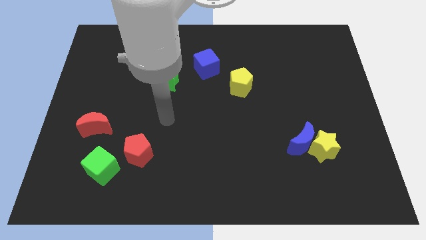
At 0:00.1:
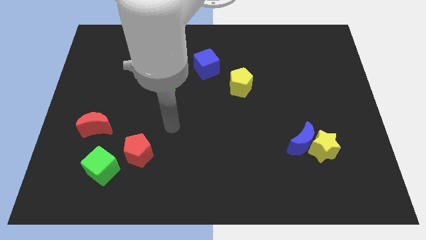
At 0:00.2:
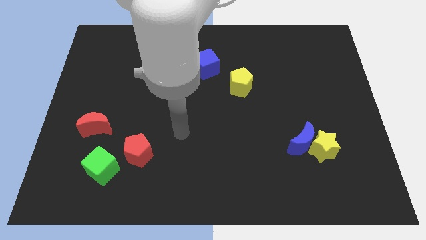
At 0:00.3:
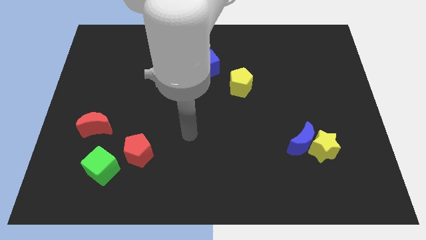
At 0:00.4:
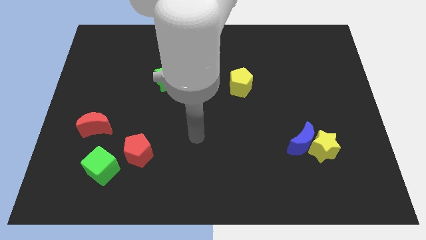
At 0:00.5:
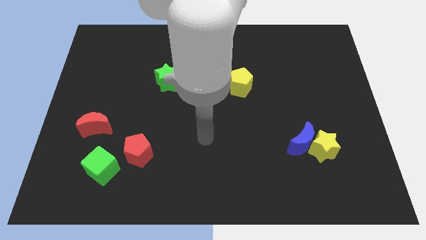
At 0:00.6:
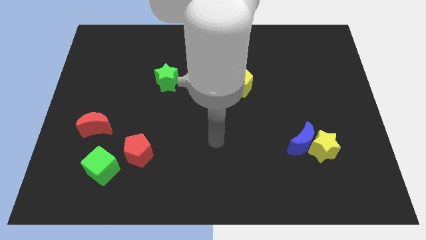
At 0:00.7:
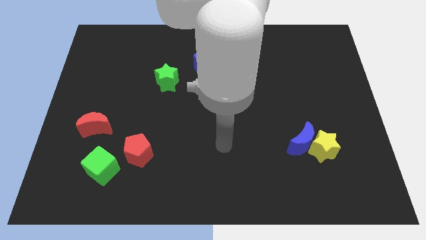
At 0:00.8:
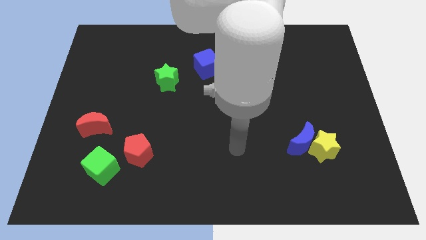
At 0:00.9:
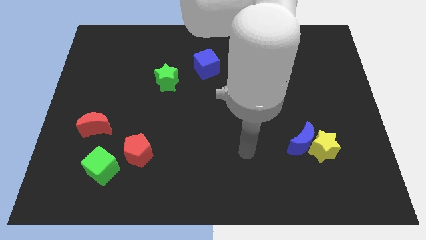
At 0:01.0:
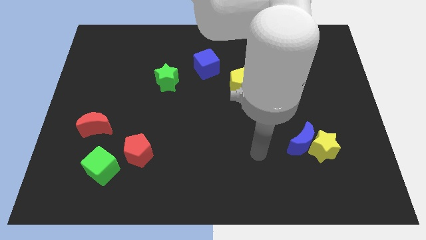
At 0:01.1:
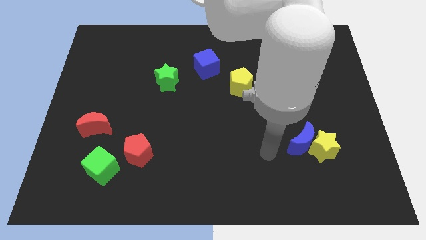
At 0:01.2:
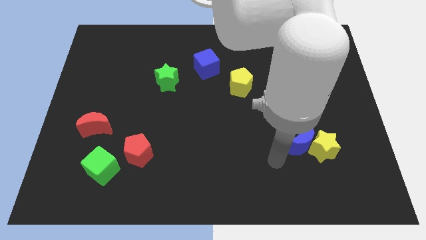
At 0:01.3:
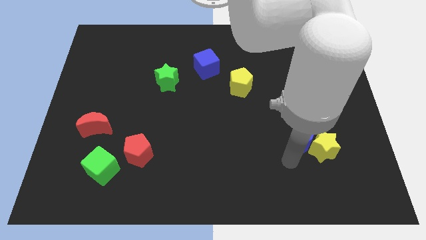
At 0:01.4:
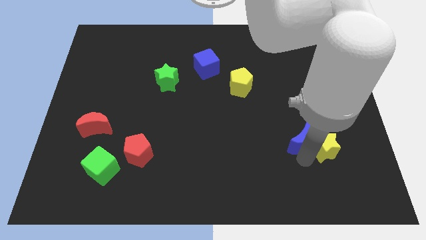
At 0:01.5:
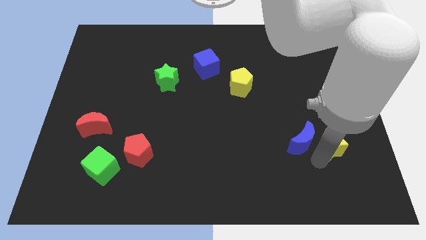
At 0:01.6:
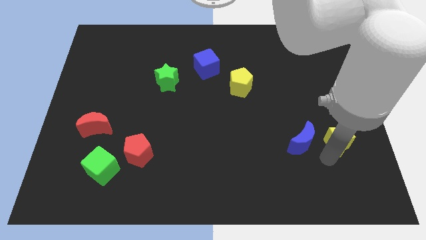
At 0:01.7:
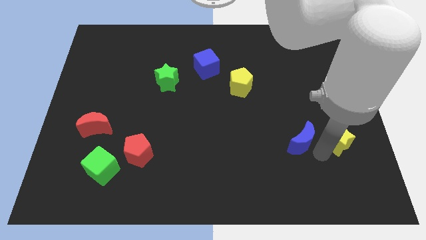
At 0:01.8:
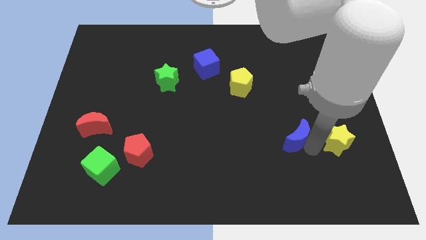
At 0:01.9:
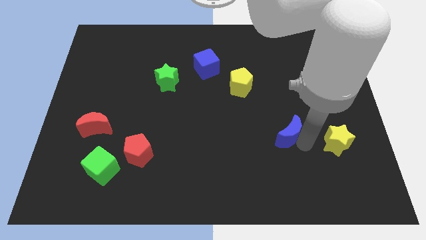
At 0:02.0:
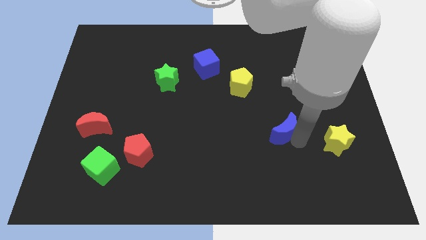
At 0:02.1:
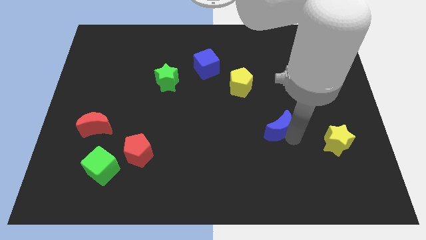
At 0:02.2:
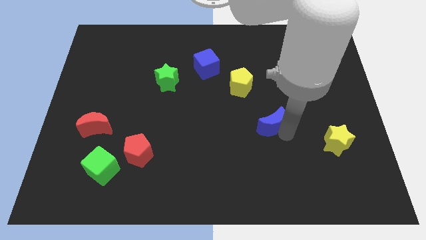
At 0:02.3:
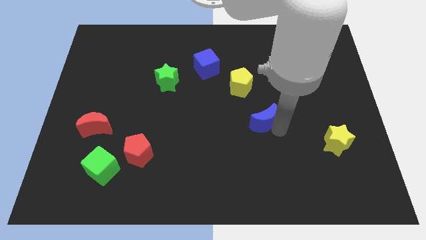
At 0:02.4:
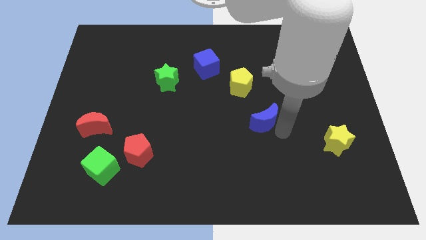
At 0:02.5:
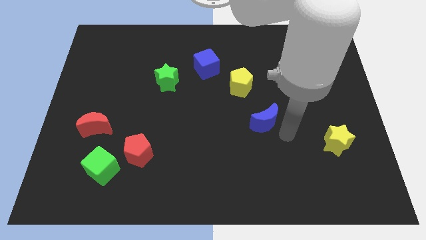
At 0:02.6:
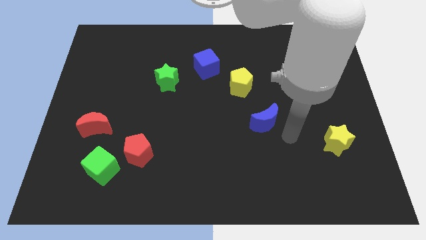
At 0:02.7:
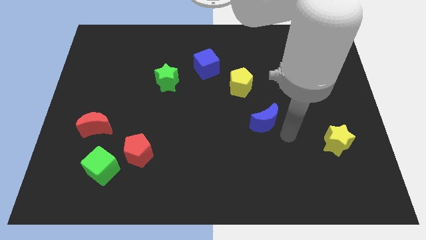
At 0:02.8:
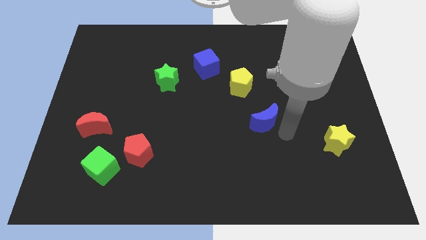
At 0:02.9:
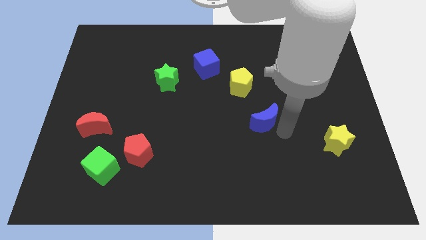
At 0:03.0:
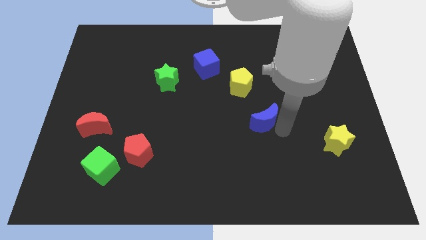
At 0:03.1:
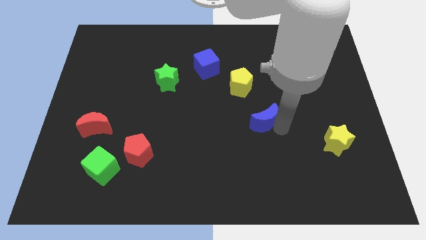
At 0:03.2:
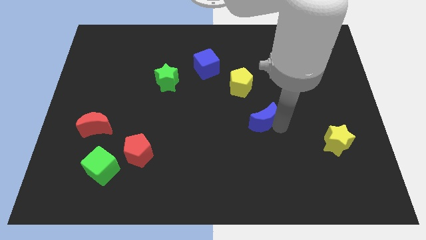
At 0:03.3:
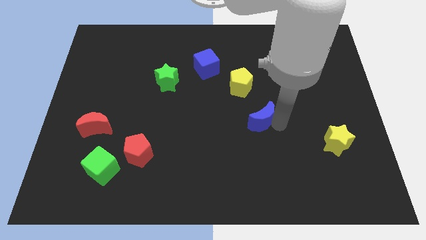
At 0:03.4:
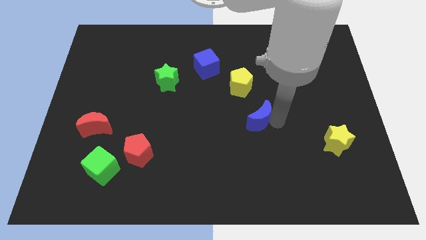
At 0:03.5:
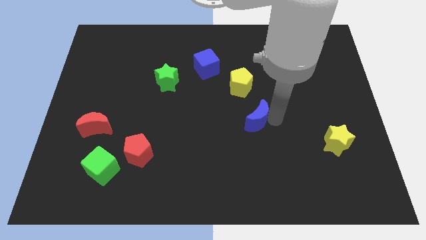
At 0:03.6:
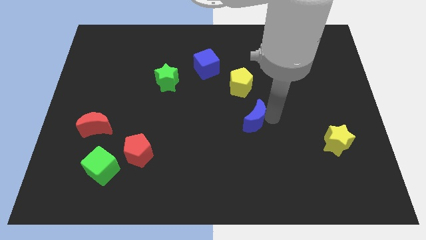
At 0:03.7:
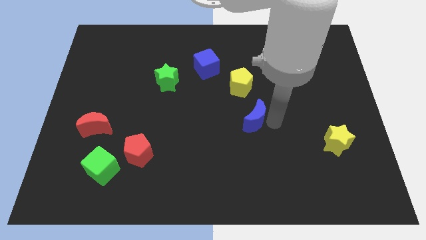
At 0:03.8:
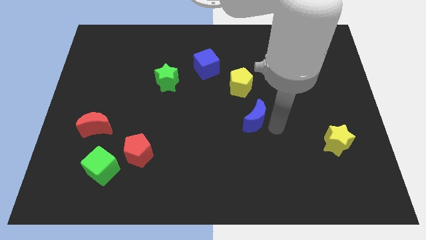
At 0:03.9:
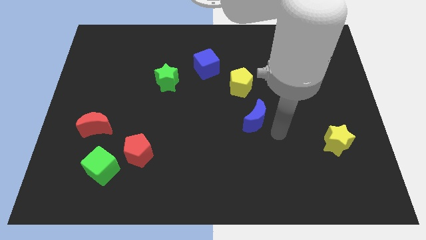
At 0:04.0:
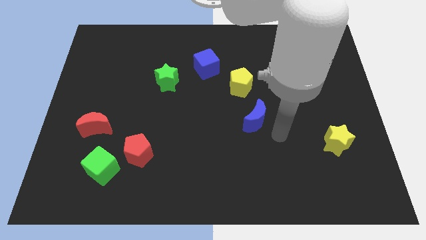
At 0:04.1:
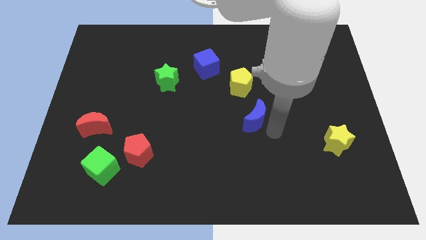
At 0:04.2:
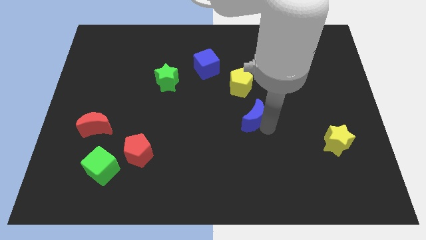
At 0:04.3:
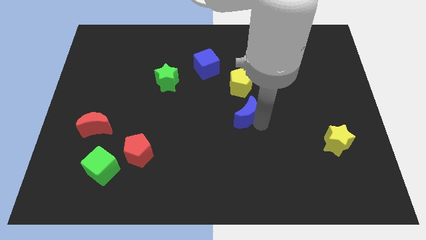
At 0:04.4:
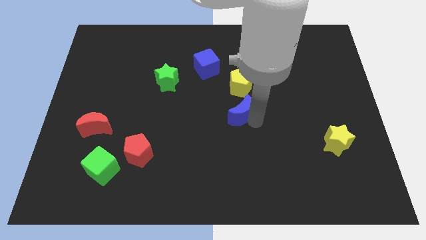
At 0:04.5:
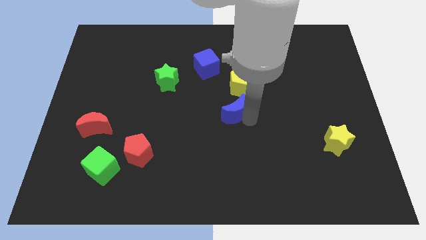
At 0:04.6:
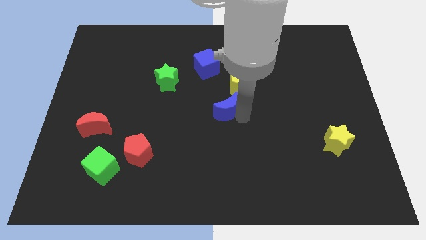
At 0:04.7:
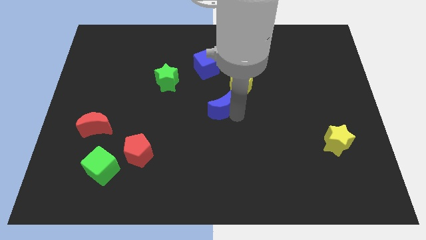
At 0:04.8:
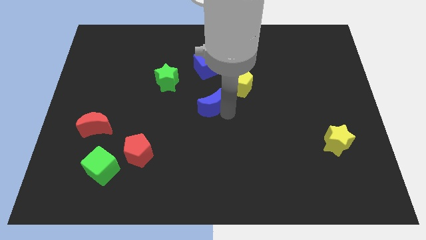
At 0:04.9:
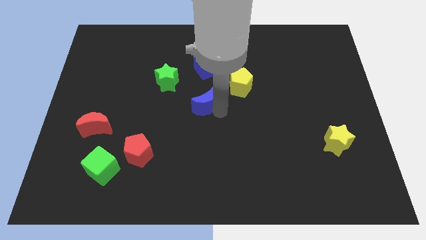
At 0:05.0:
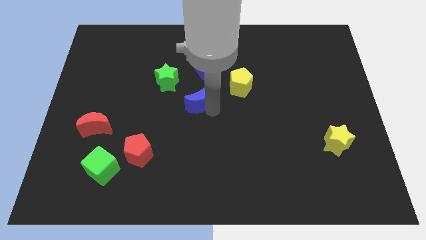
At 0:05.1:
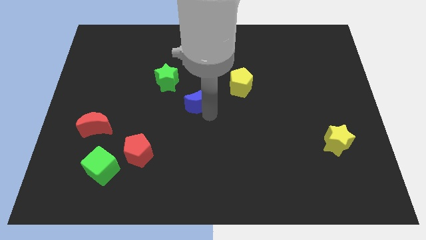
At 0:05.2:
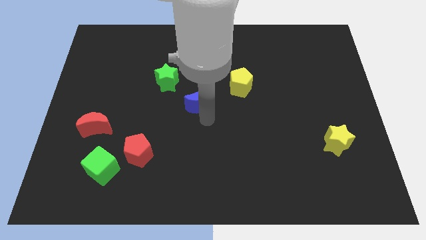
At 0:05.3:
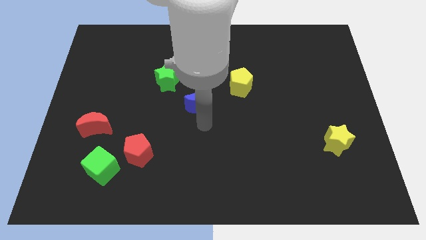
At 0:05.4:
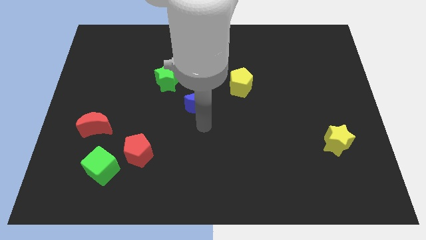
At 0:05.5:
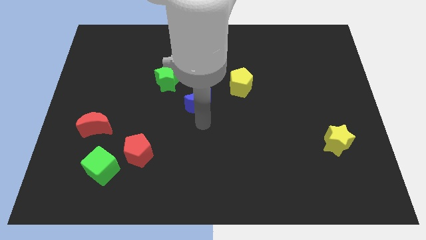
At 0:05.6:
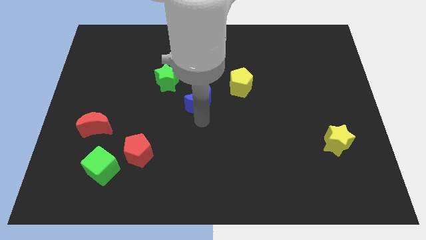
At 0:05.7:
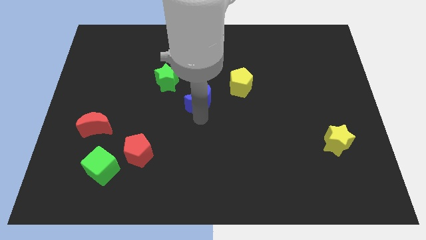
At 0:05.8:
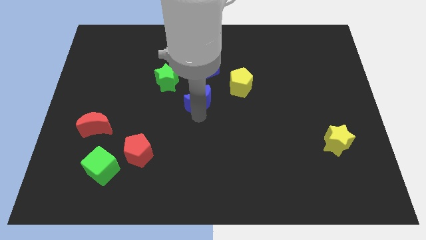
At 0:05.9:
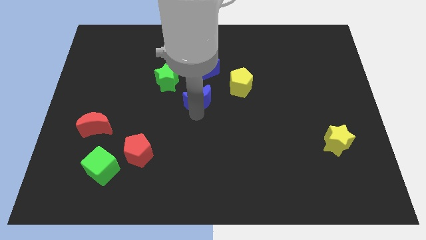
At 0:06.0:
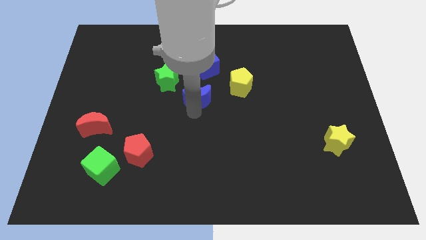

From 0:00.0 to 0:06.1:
move the blue moon to the left of the yellow pentagon
